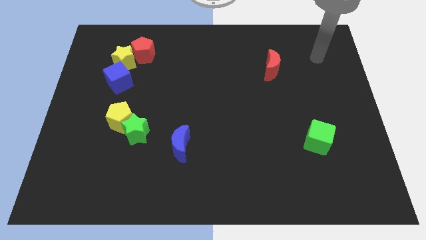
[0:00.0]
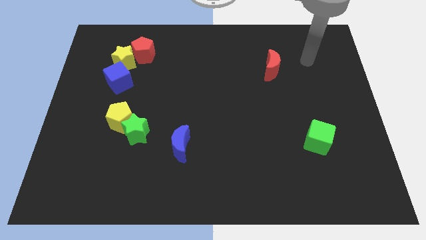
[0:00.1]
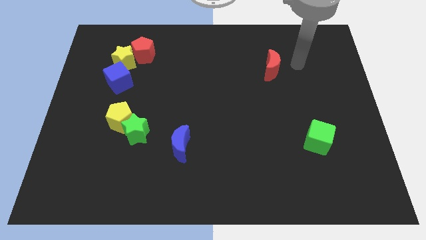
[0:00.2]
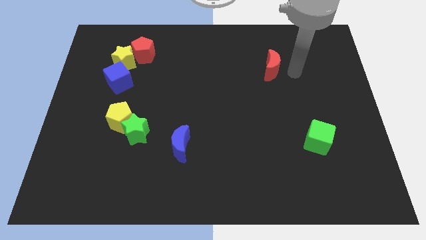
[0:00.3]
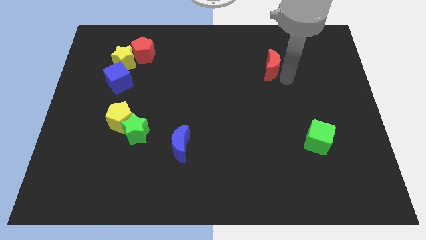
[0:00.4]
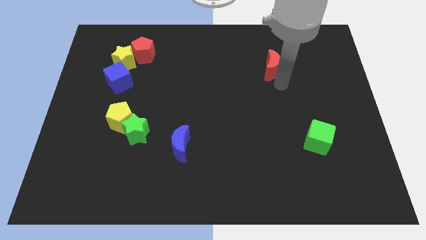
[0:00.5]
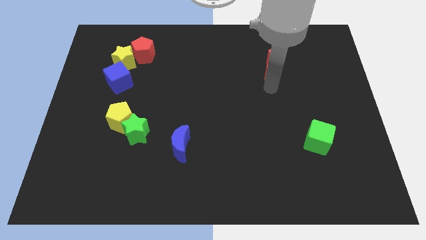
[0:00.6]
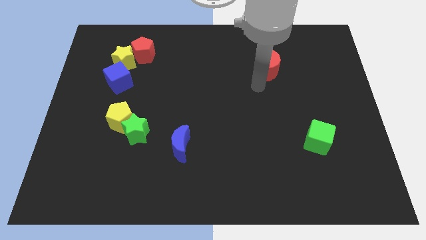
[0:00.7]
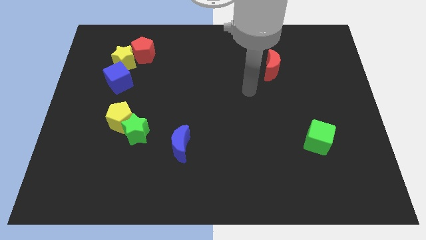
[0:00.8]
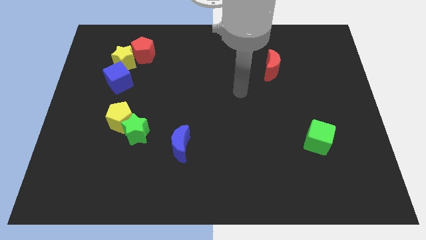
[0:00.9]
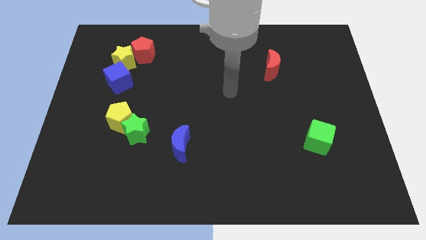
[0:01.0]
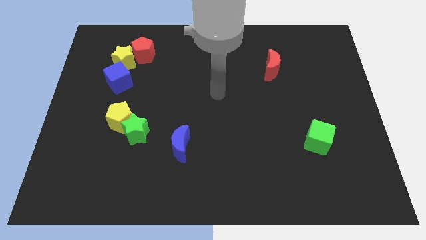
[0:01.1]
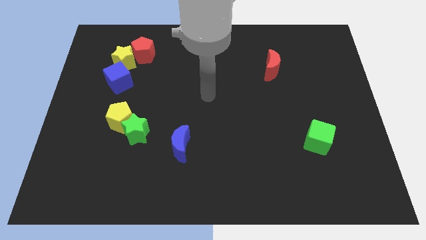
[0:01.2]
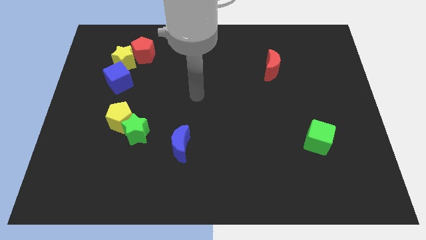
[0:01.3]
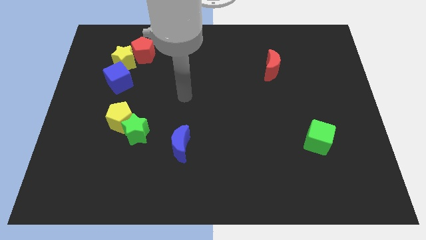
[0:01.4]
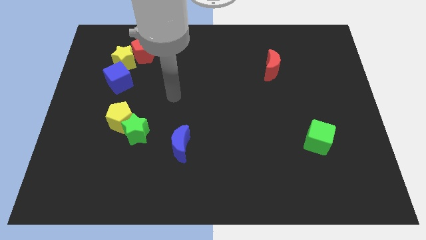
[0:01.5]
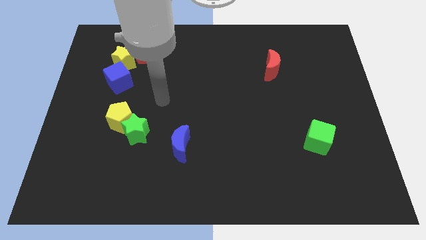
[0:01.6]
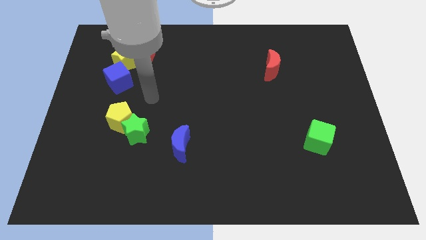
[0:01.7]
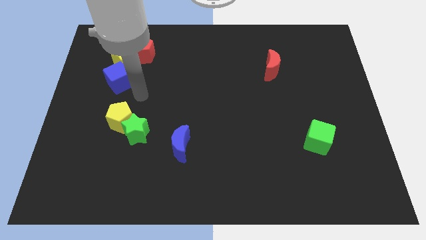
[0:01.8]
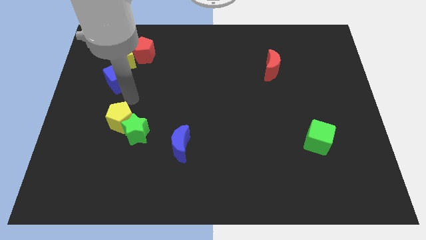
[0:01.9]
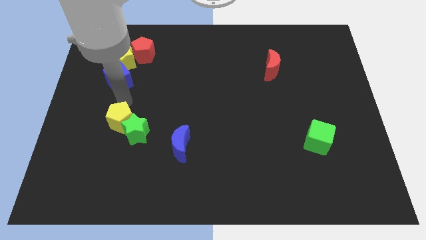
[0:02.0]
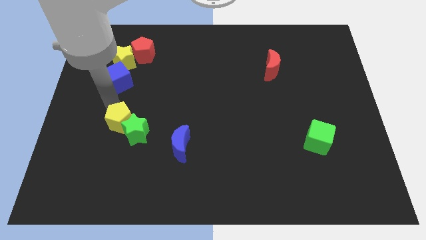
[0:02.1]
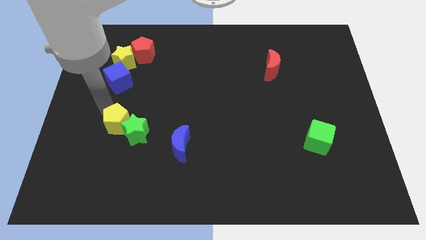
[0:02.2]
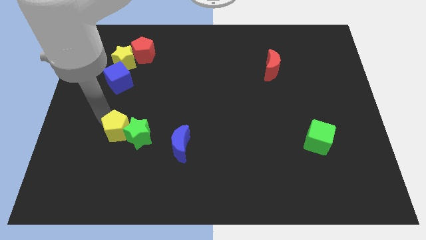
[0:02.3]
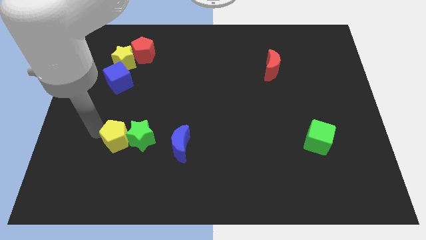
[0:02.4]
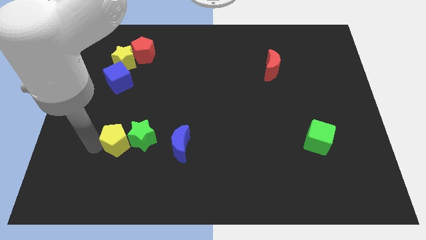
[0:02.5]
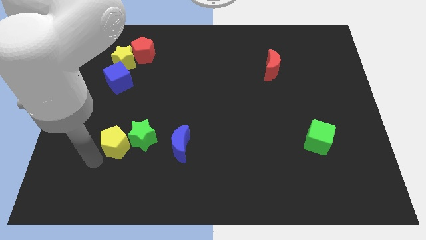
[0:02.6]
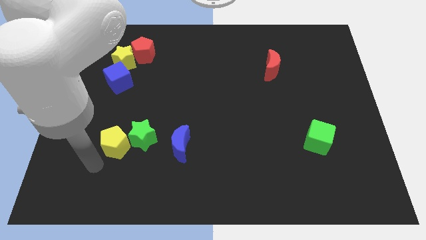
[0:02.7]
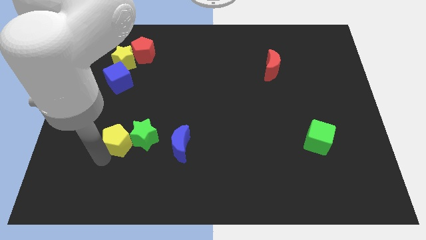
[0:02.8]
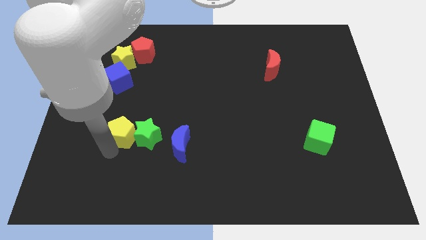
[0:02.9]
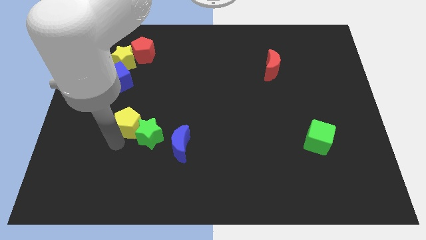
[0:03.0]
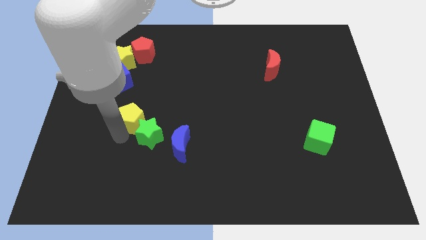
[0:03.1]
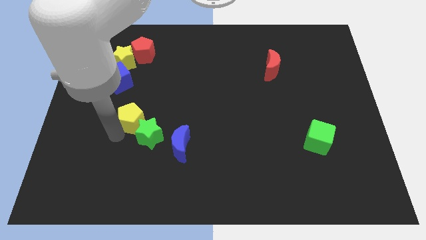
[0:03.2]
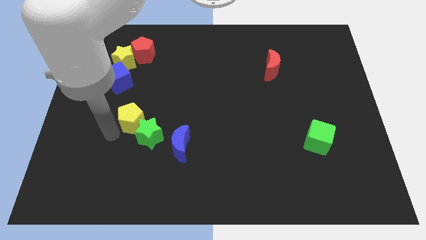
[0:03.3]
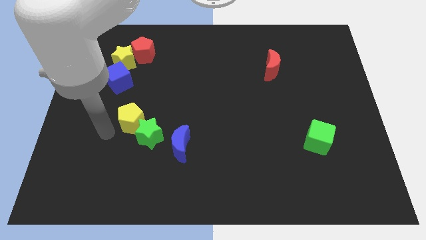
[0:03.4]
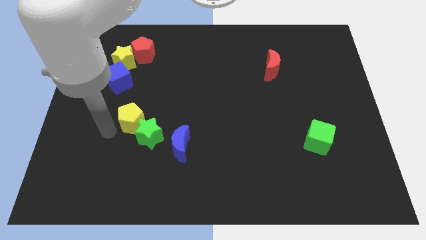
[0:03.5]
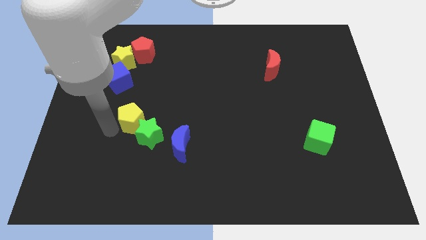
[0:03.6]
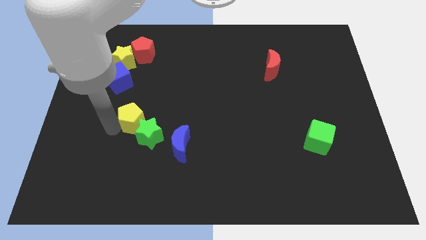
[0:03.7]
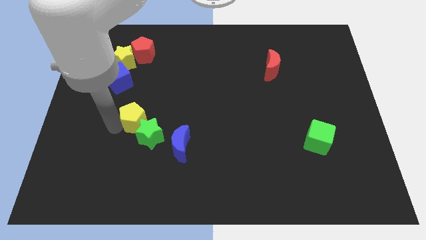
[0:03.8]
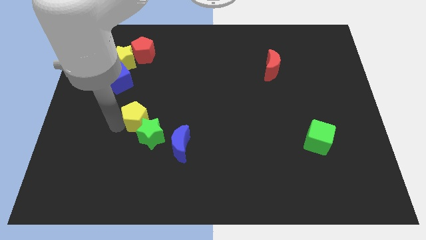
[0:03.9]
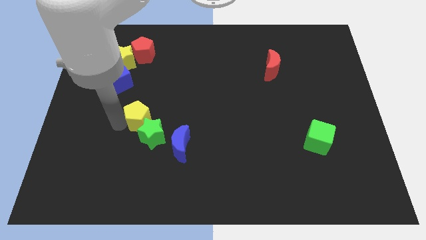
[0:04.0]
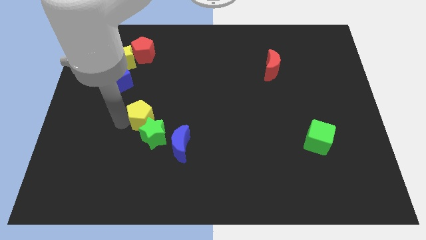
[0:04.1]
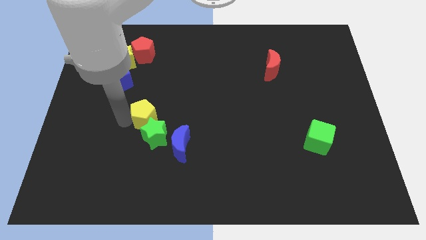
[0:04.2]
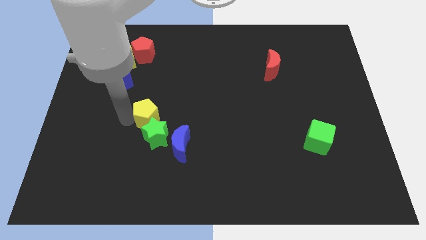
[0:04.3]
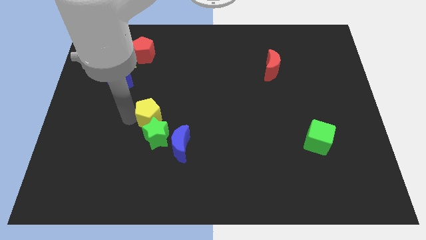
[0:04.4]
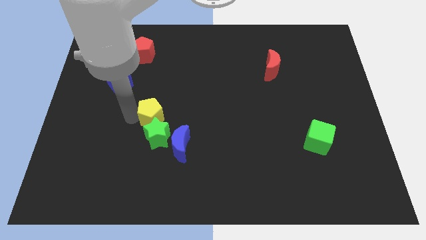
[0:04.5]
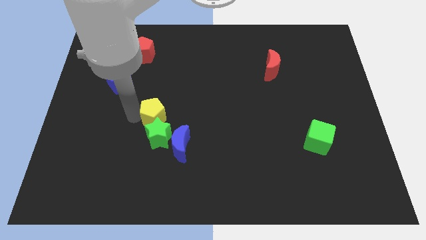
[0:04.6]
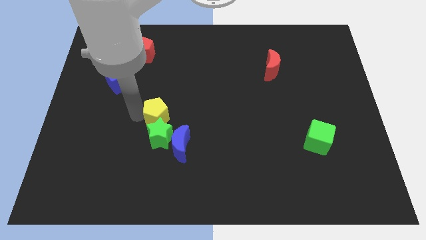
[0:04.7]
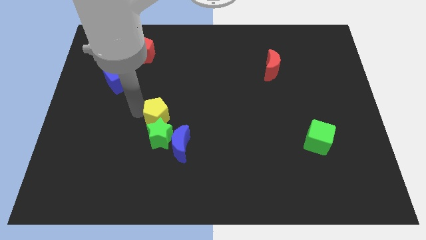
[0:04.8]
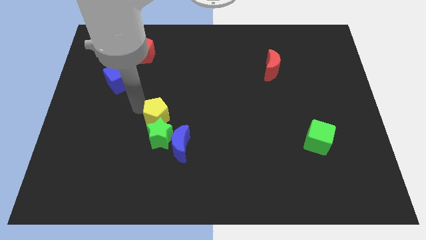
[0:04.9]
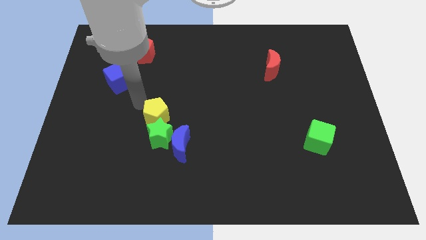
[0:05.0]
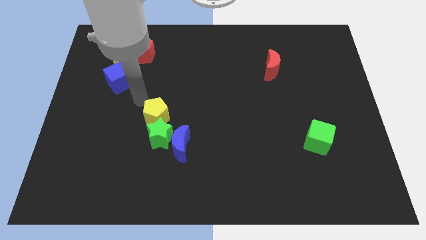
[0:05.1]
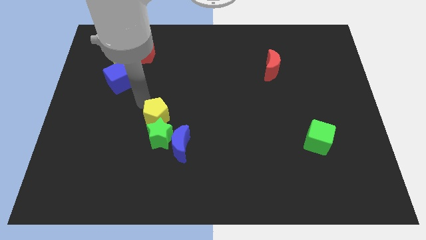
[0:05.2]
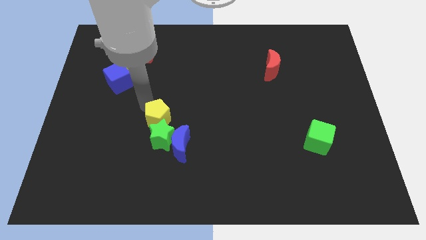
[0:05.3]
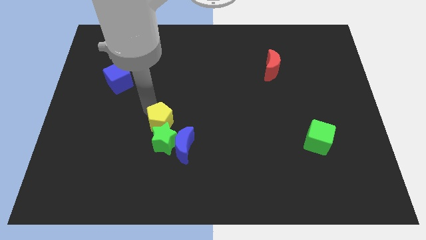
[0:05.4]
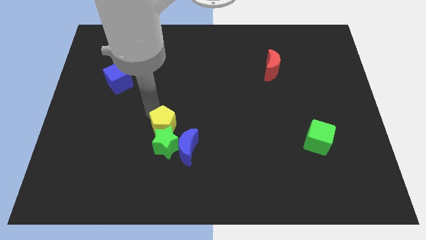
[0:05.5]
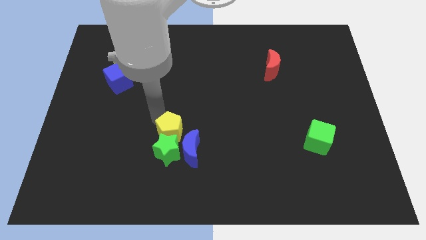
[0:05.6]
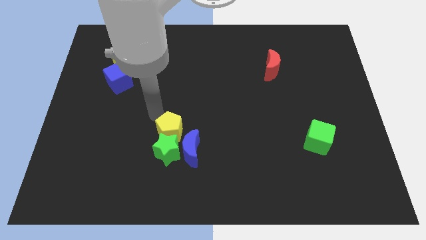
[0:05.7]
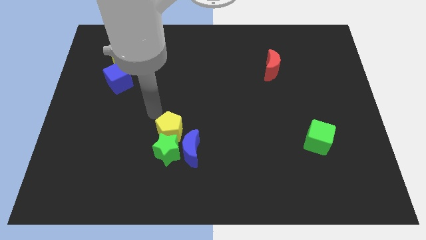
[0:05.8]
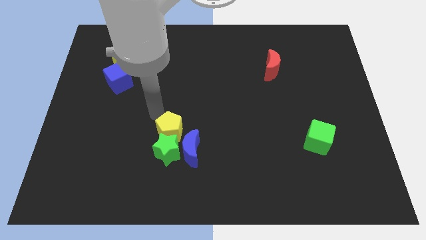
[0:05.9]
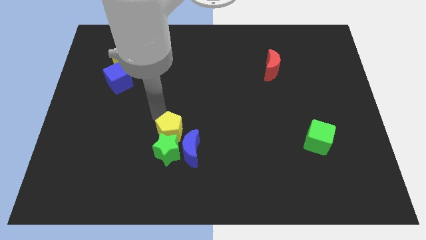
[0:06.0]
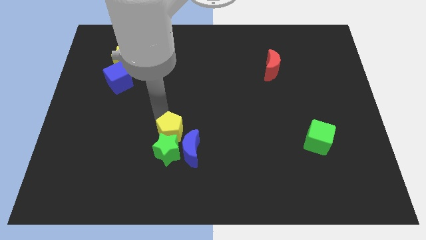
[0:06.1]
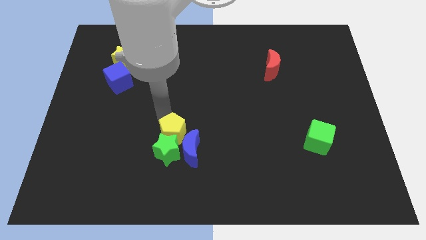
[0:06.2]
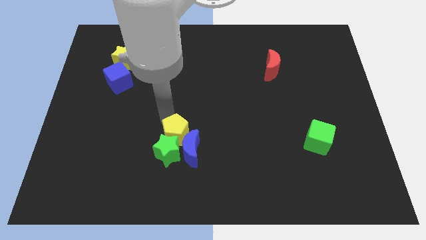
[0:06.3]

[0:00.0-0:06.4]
put the yellow pentagon close to the blue moon
